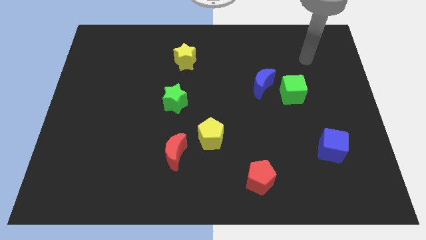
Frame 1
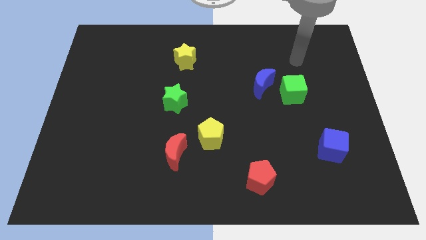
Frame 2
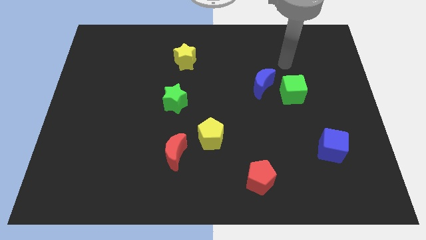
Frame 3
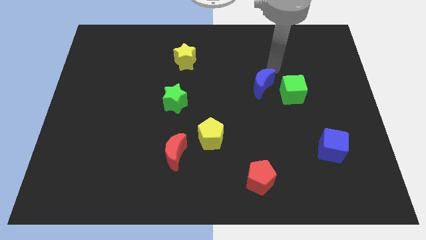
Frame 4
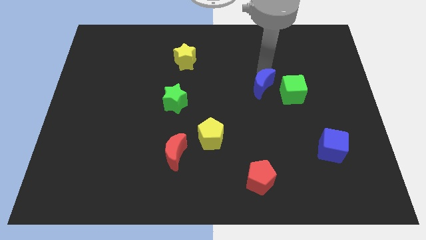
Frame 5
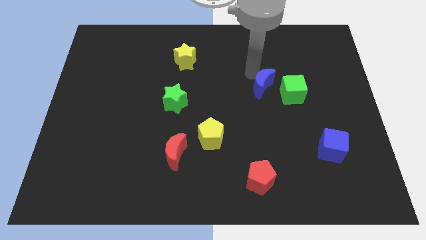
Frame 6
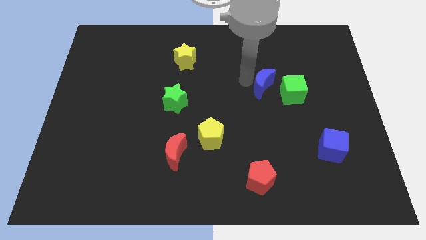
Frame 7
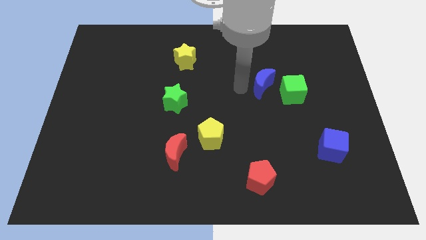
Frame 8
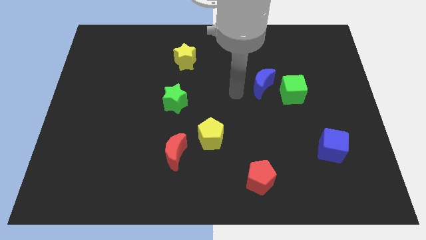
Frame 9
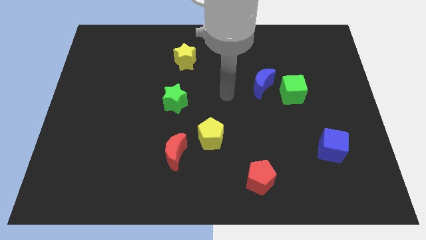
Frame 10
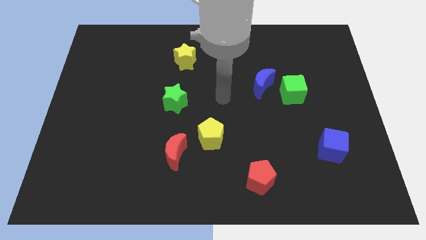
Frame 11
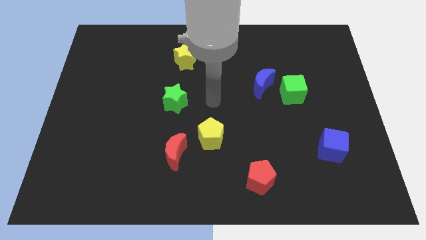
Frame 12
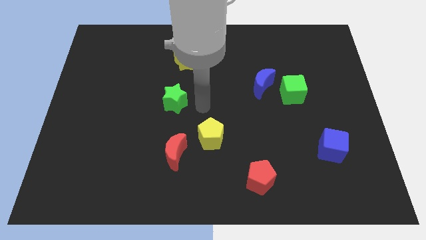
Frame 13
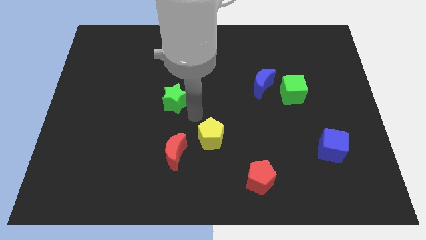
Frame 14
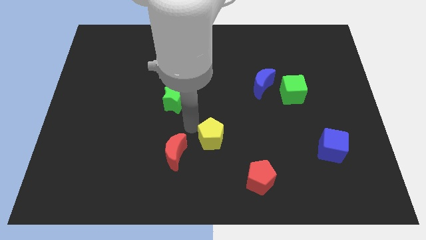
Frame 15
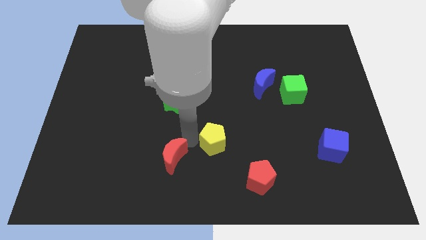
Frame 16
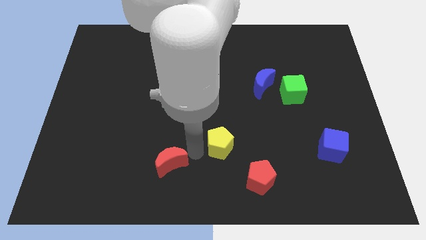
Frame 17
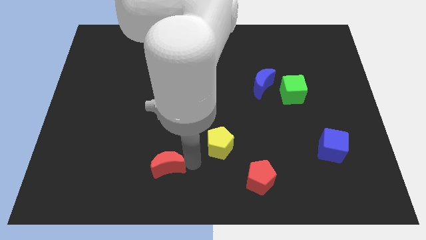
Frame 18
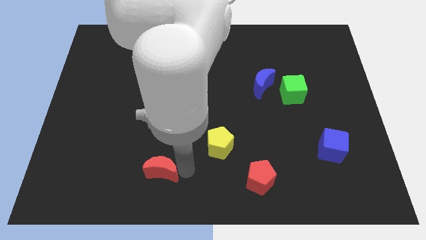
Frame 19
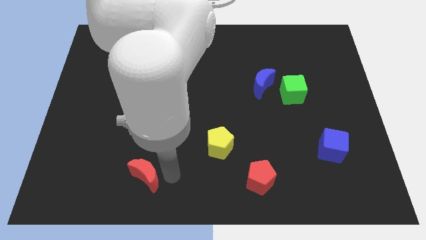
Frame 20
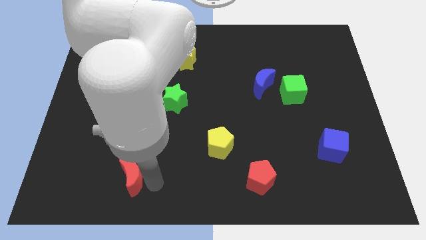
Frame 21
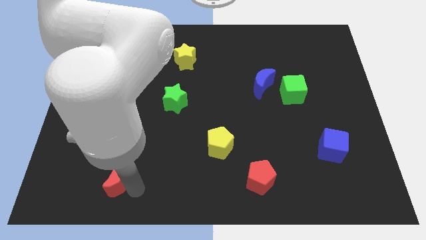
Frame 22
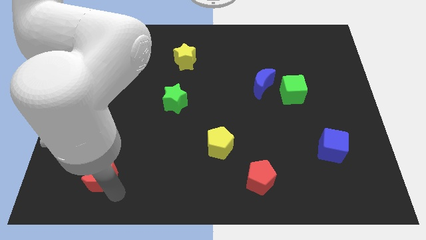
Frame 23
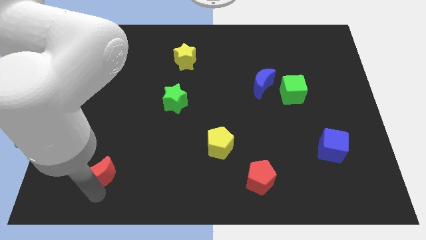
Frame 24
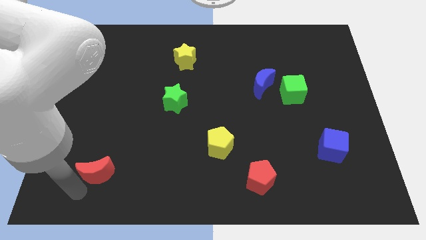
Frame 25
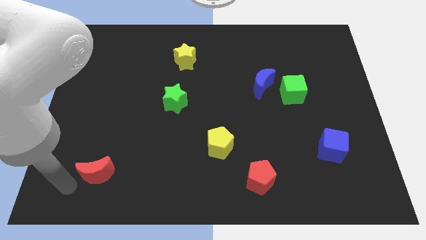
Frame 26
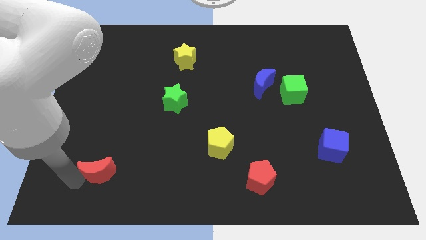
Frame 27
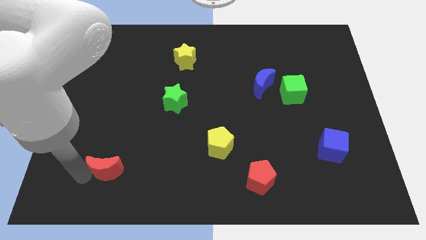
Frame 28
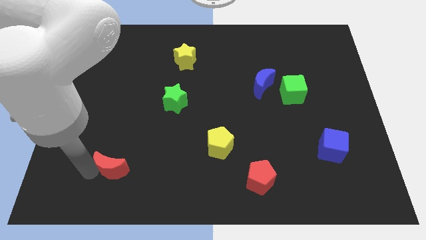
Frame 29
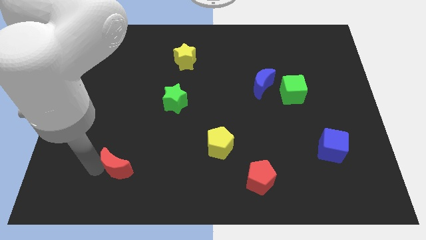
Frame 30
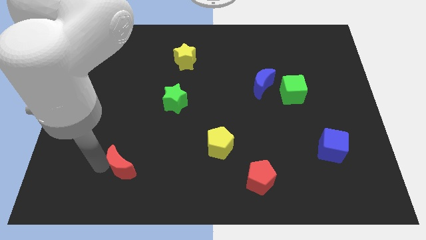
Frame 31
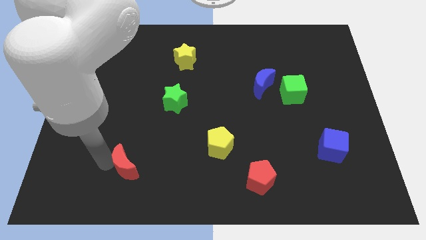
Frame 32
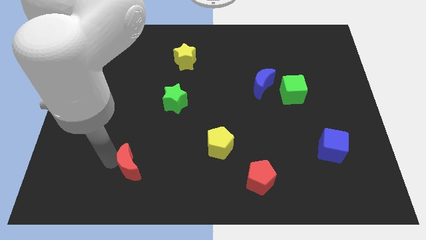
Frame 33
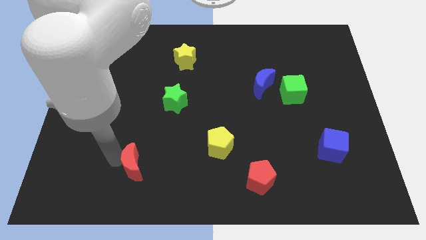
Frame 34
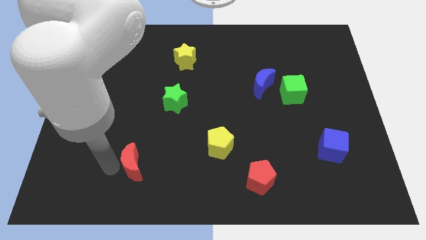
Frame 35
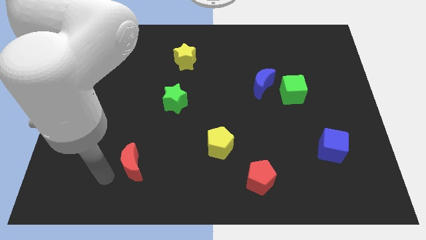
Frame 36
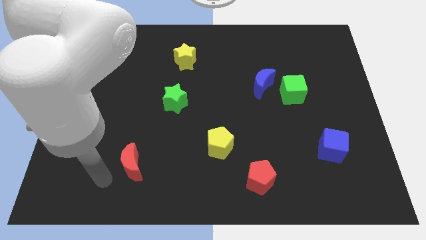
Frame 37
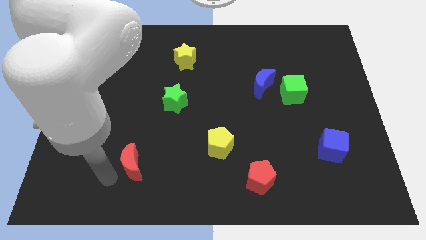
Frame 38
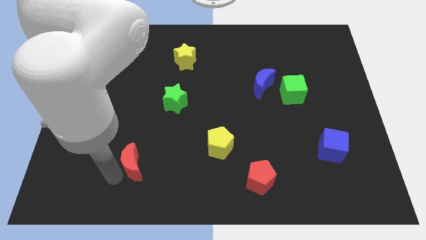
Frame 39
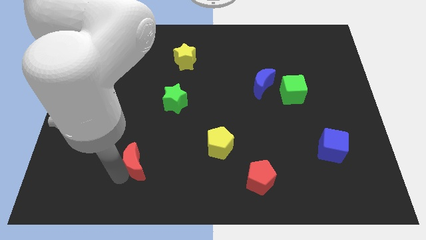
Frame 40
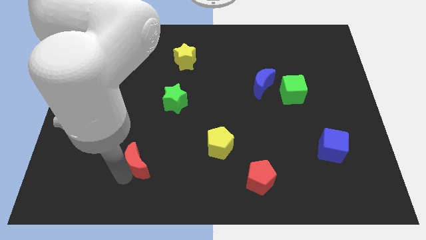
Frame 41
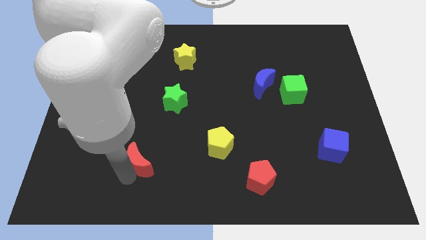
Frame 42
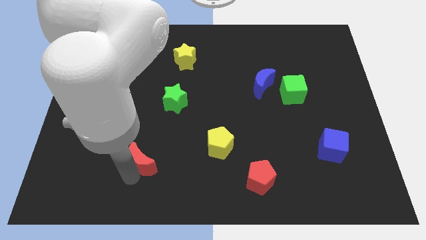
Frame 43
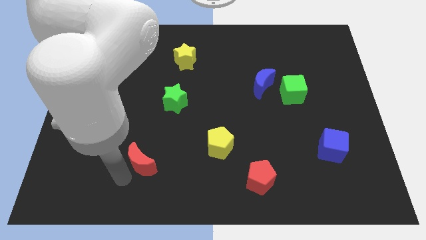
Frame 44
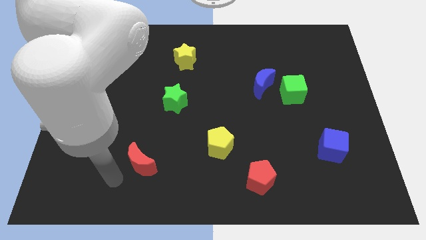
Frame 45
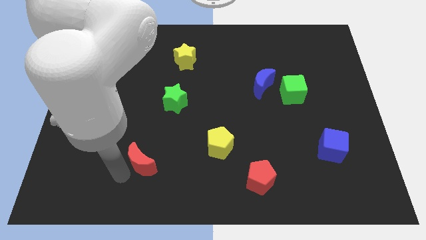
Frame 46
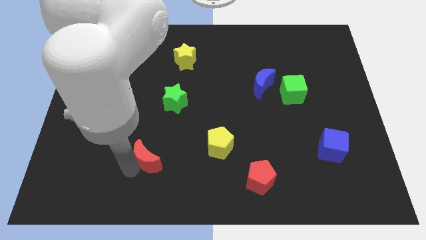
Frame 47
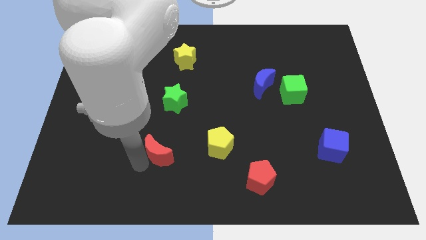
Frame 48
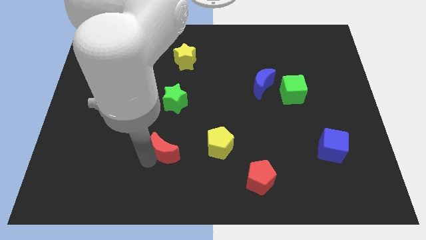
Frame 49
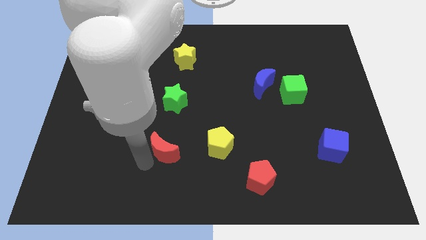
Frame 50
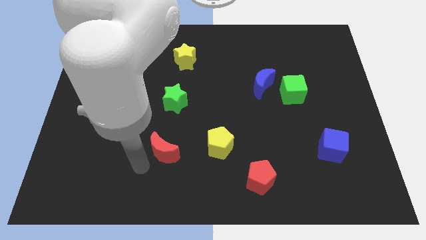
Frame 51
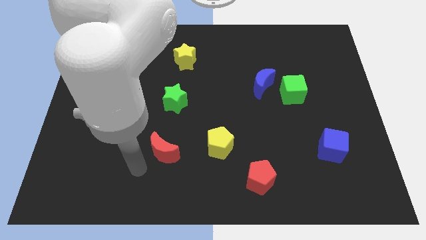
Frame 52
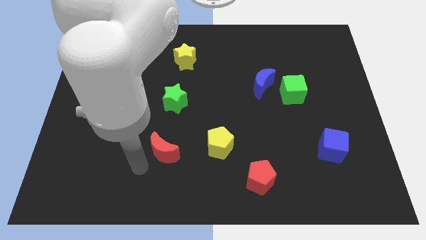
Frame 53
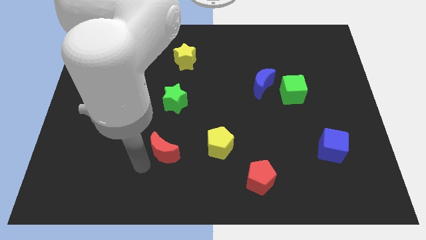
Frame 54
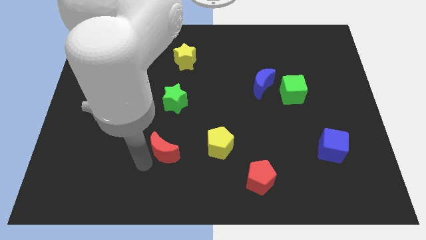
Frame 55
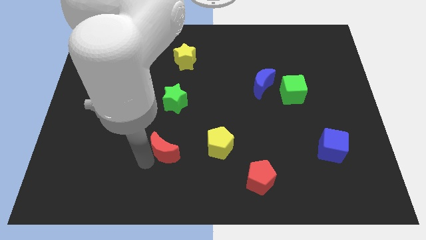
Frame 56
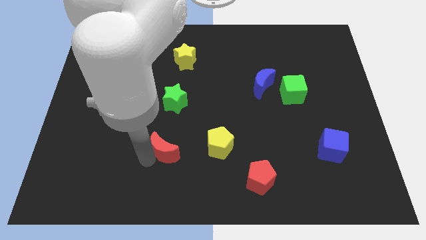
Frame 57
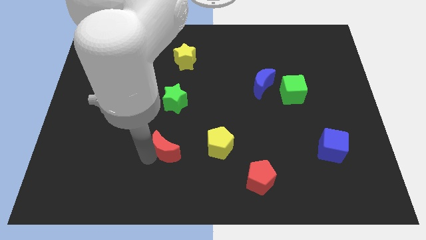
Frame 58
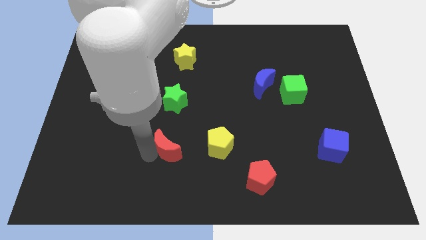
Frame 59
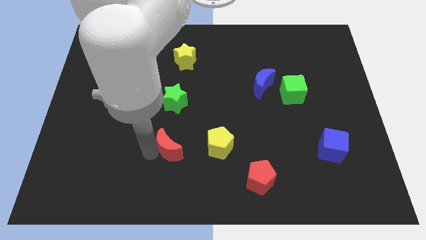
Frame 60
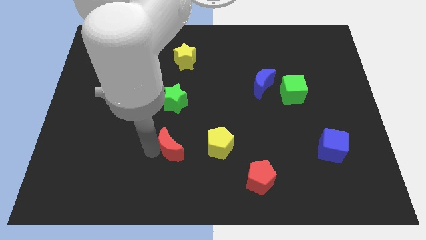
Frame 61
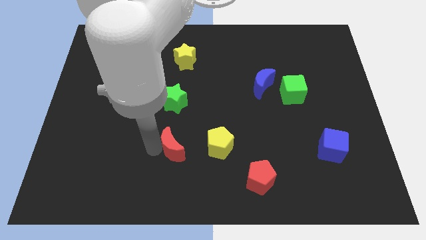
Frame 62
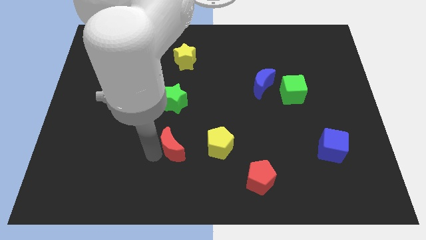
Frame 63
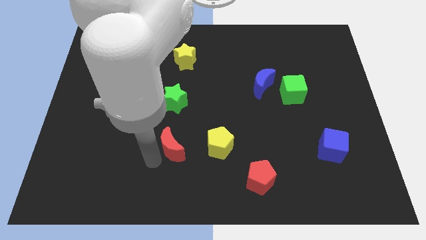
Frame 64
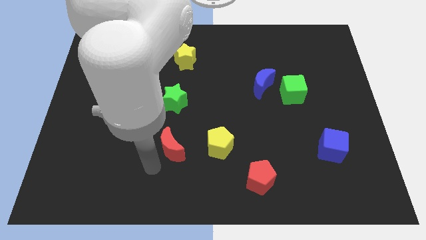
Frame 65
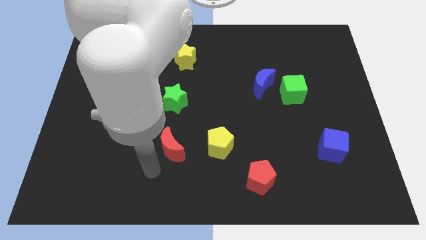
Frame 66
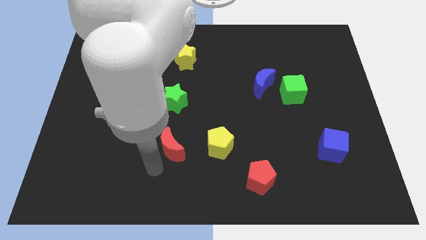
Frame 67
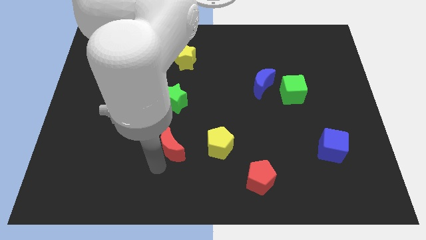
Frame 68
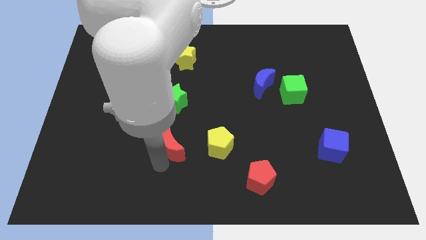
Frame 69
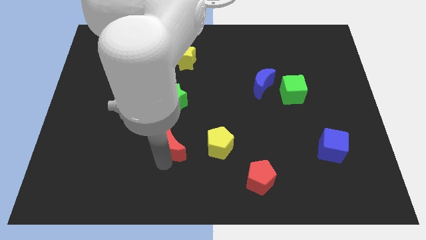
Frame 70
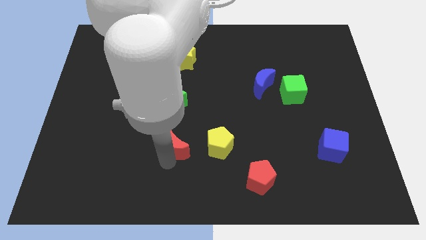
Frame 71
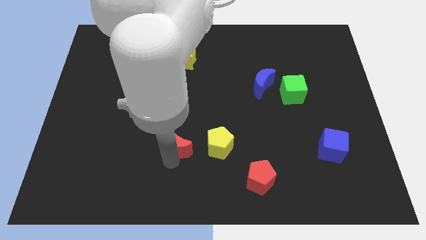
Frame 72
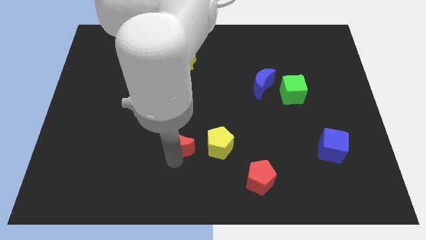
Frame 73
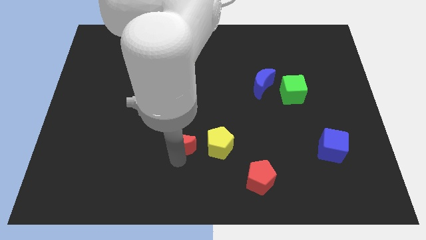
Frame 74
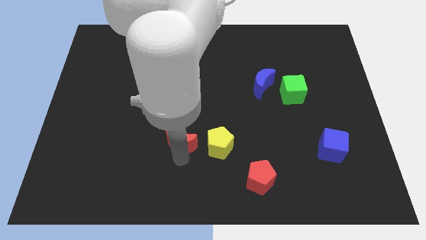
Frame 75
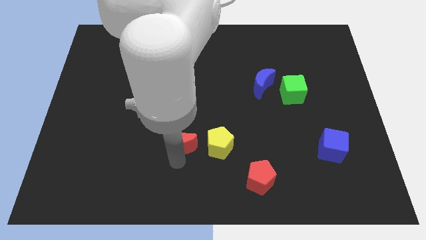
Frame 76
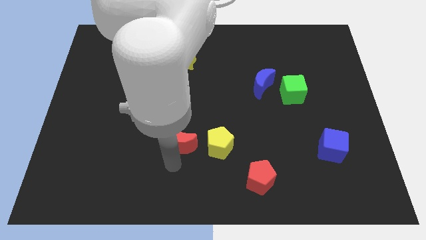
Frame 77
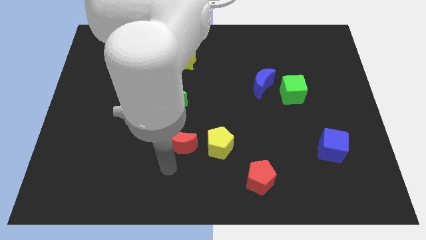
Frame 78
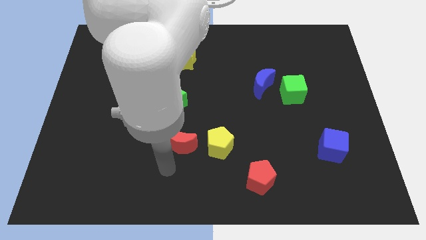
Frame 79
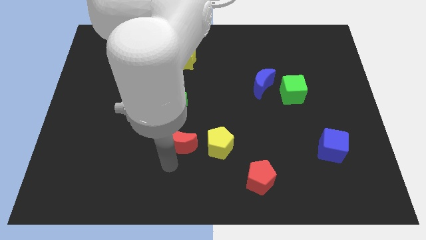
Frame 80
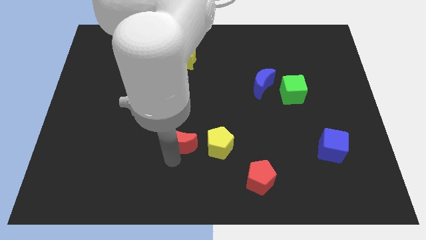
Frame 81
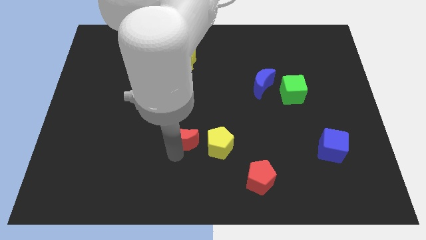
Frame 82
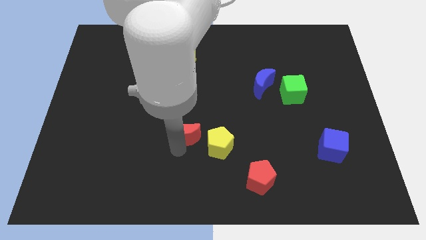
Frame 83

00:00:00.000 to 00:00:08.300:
put the red moon to the center of the board
